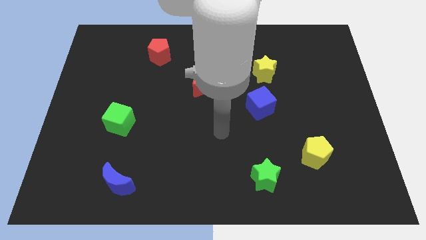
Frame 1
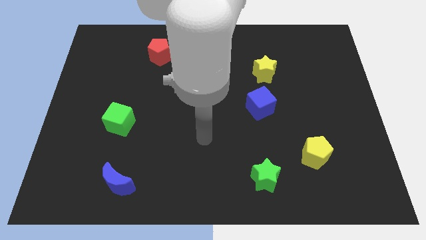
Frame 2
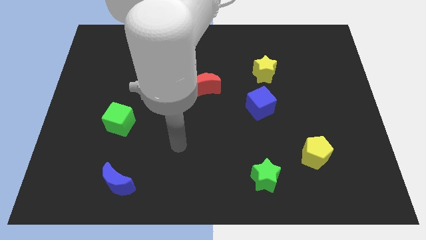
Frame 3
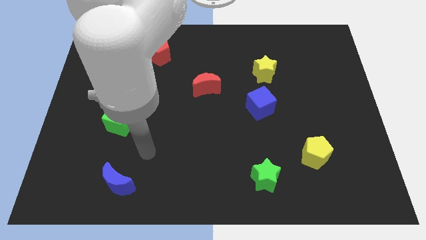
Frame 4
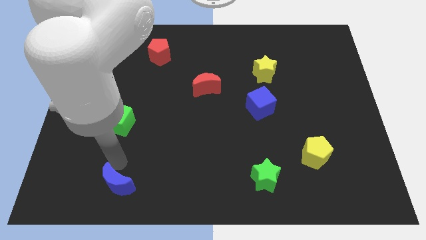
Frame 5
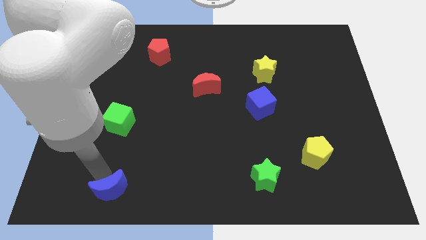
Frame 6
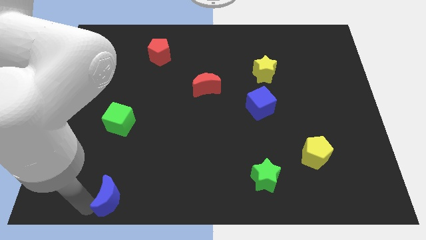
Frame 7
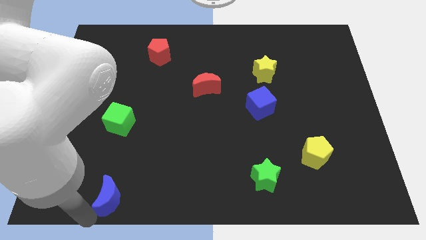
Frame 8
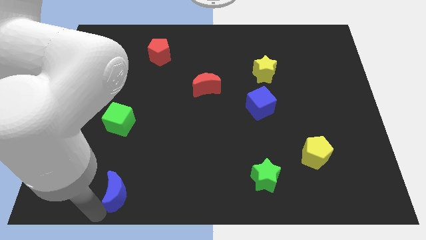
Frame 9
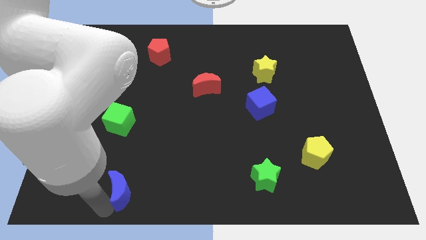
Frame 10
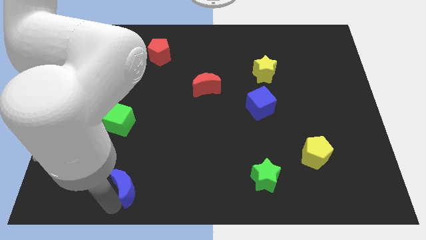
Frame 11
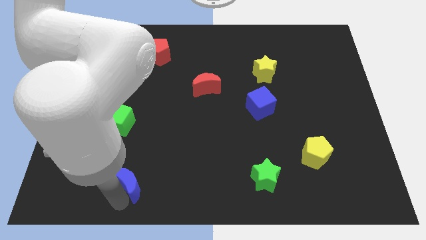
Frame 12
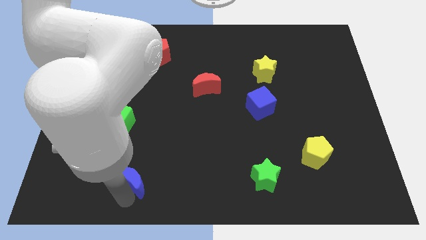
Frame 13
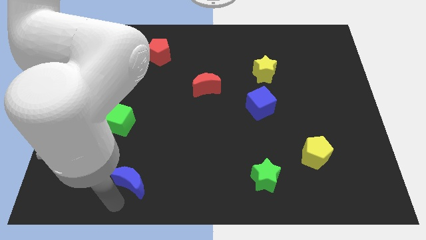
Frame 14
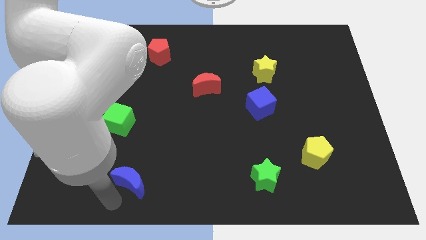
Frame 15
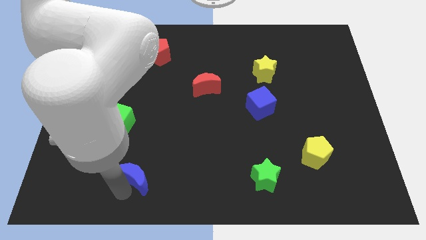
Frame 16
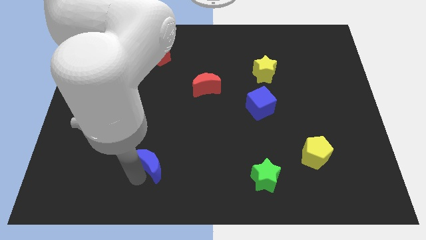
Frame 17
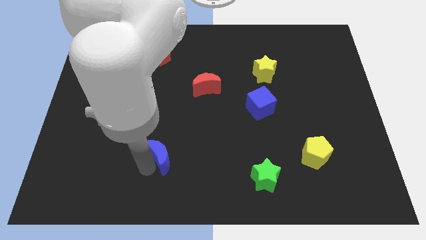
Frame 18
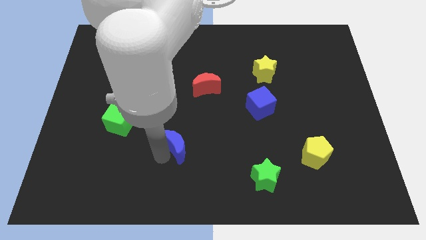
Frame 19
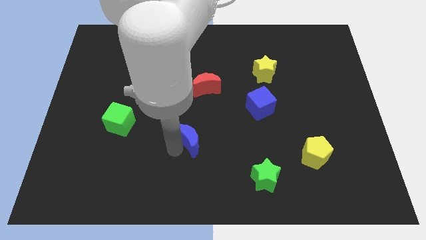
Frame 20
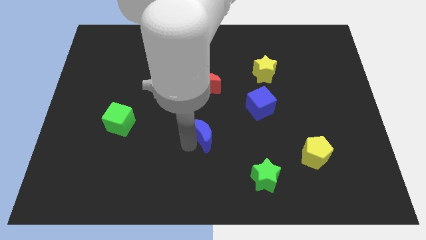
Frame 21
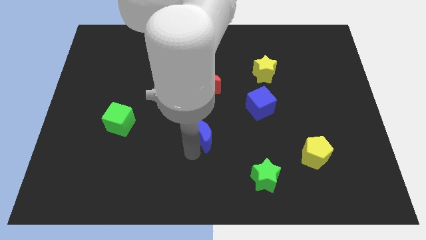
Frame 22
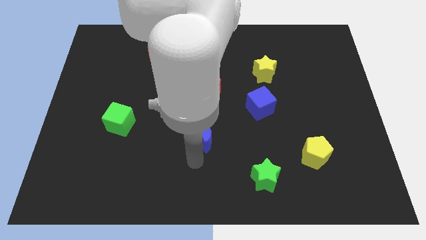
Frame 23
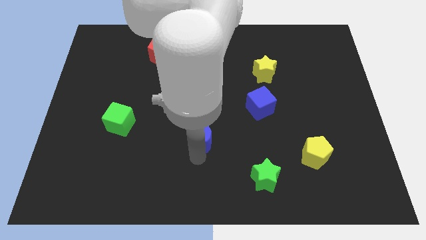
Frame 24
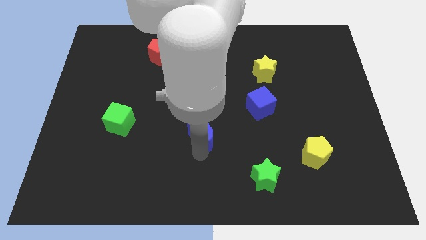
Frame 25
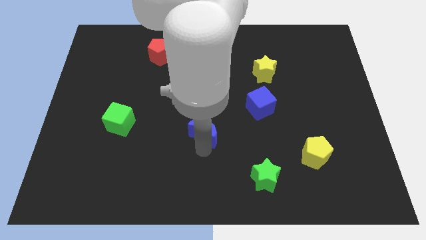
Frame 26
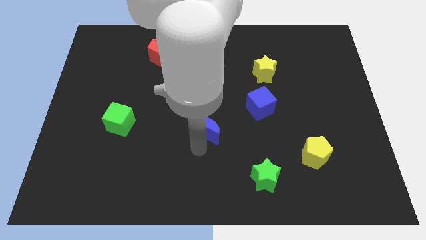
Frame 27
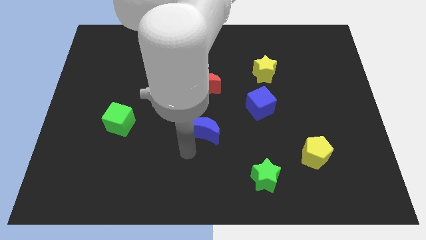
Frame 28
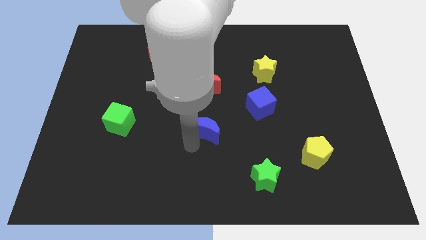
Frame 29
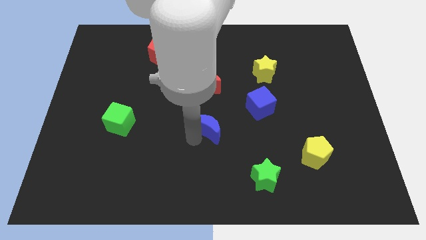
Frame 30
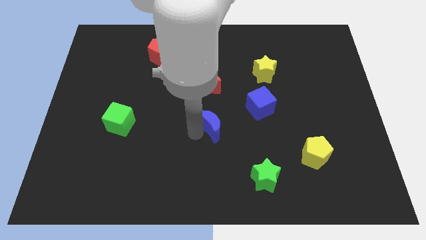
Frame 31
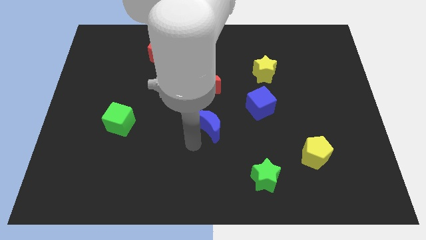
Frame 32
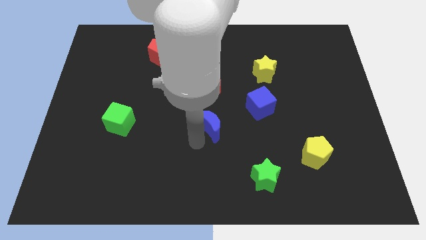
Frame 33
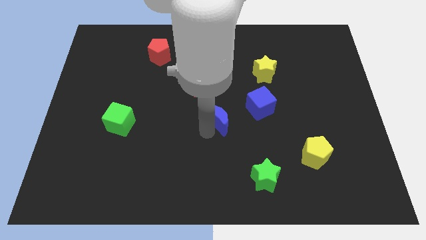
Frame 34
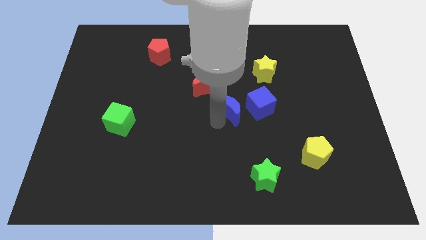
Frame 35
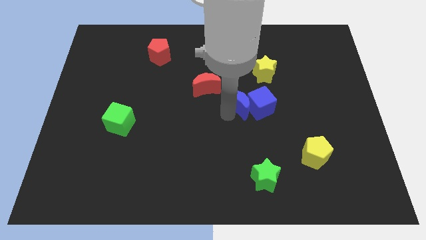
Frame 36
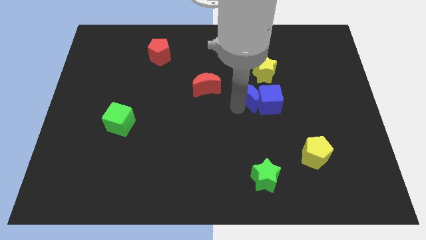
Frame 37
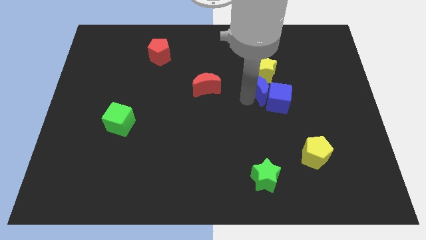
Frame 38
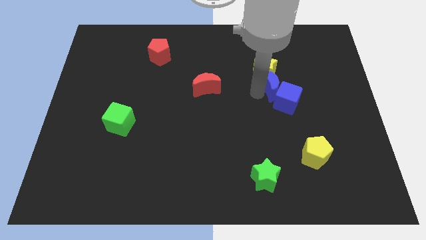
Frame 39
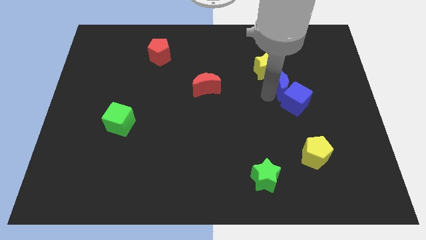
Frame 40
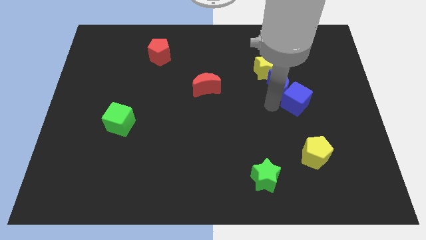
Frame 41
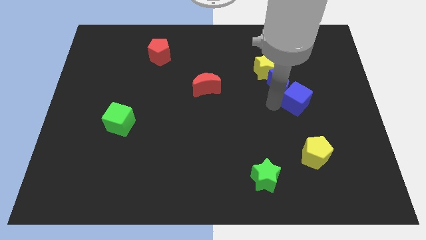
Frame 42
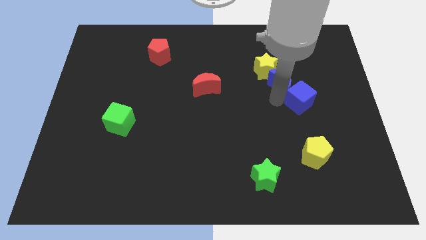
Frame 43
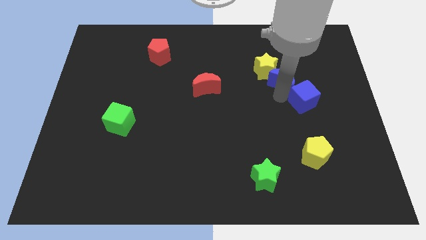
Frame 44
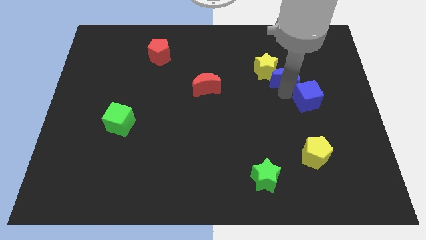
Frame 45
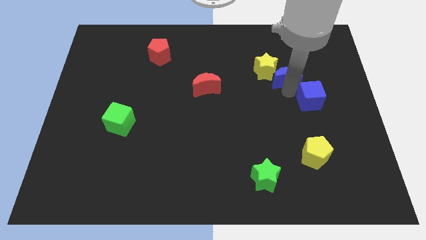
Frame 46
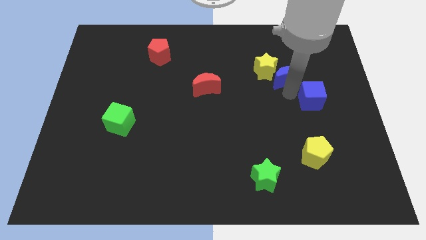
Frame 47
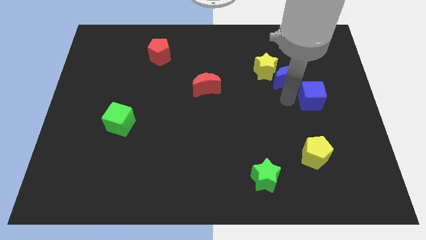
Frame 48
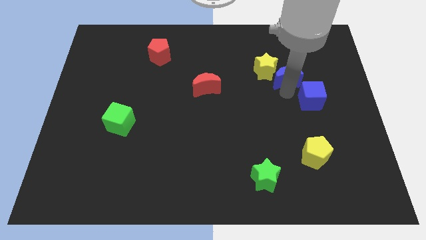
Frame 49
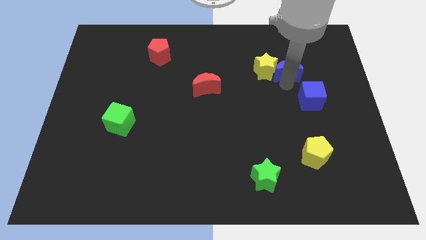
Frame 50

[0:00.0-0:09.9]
push the blue moon diagonally up and to the right of the yellow star

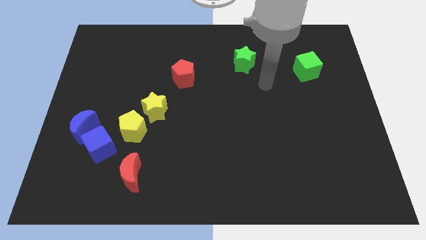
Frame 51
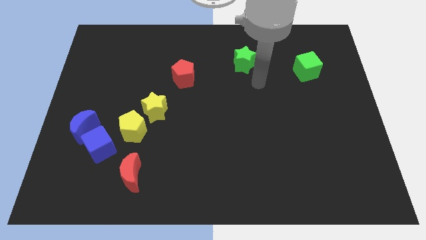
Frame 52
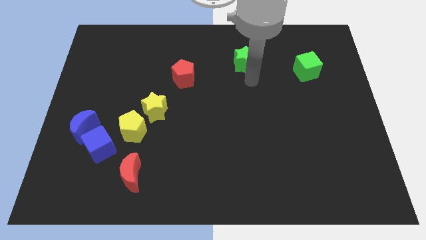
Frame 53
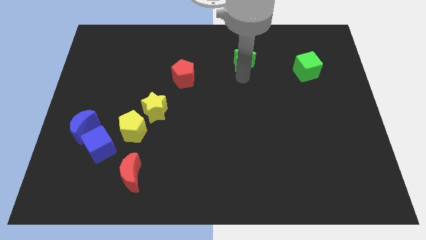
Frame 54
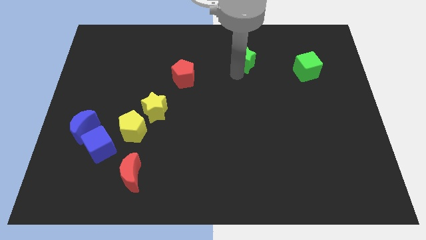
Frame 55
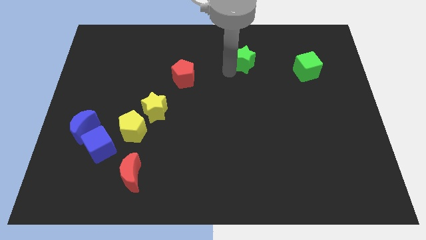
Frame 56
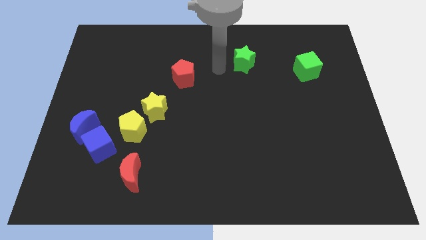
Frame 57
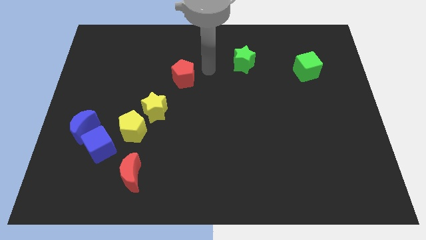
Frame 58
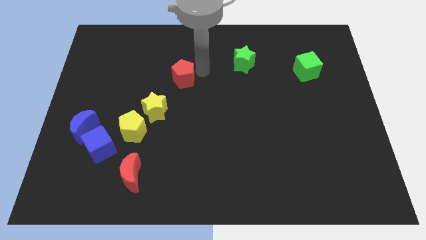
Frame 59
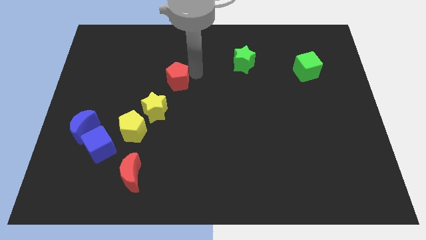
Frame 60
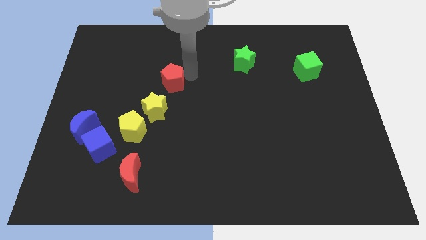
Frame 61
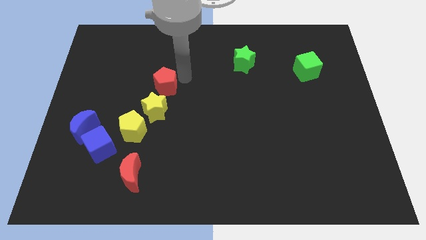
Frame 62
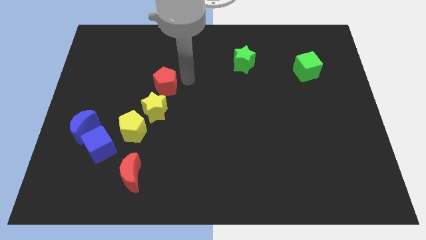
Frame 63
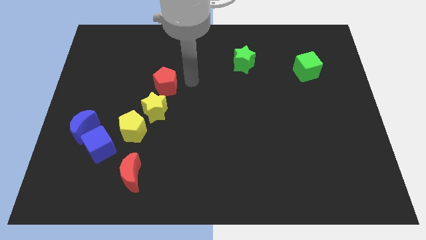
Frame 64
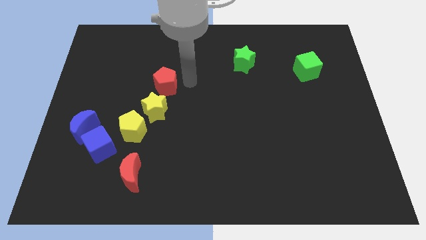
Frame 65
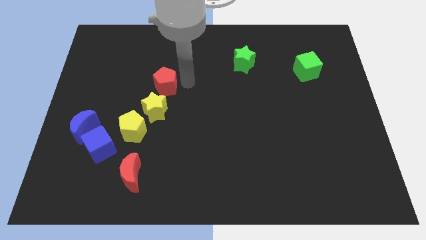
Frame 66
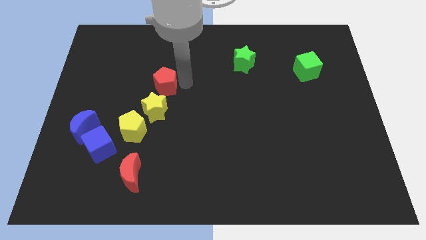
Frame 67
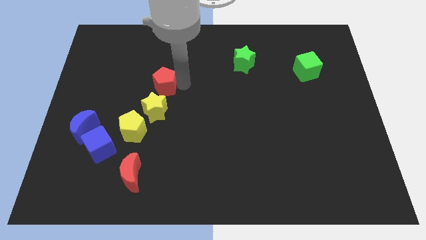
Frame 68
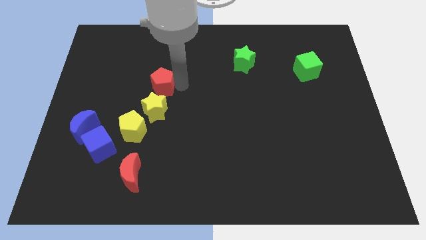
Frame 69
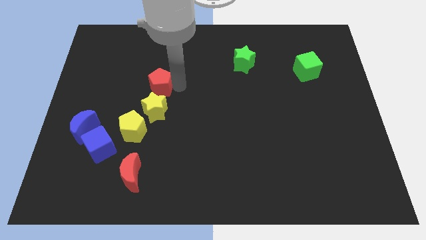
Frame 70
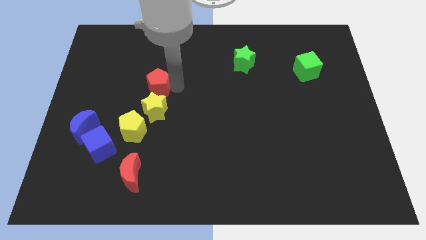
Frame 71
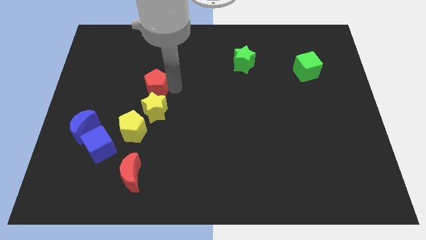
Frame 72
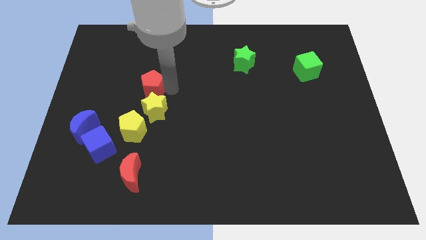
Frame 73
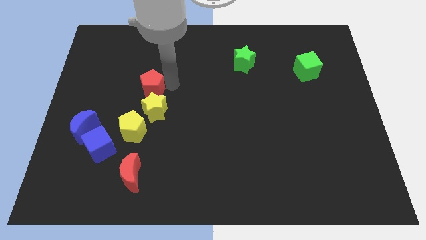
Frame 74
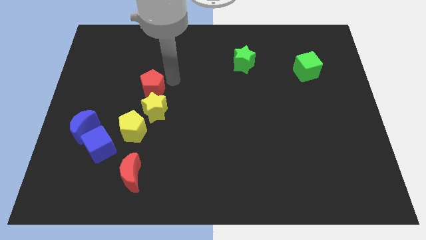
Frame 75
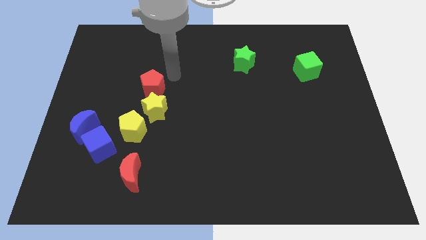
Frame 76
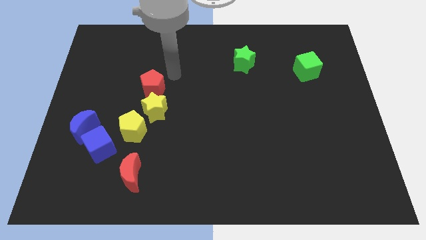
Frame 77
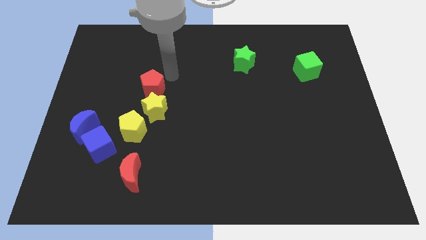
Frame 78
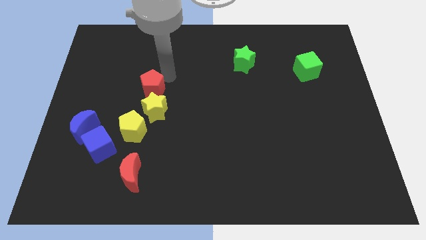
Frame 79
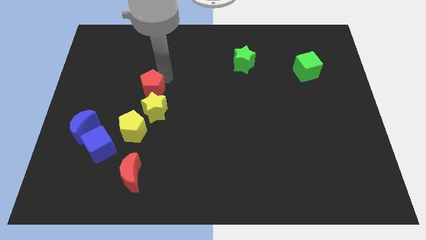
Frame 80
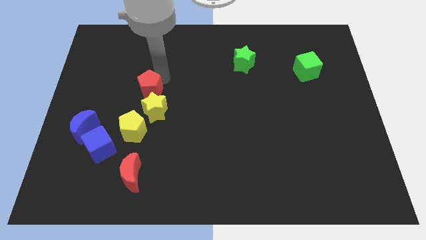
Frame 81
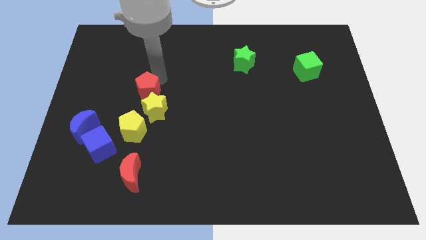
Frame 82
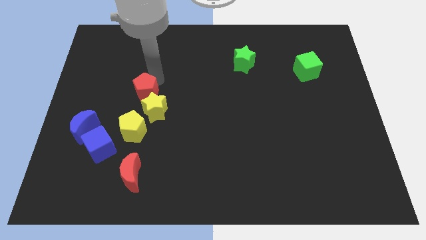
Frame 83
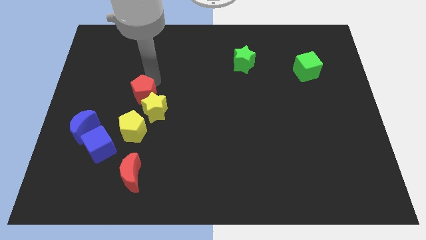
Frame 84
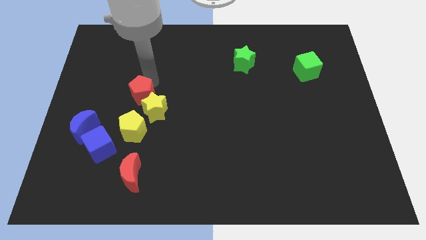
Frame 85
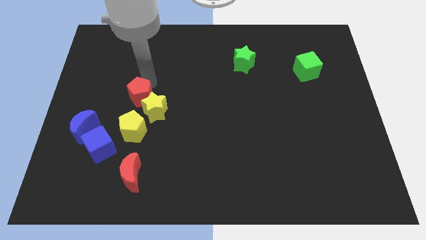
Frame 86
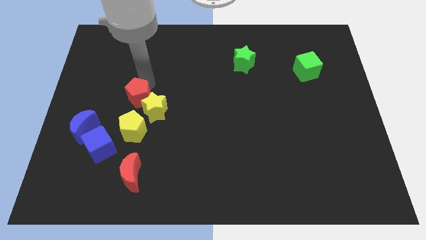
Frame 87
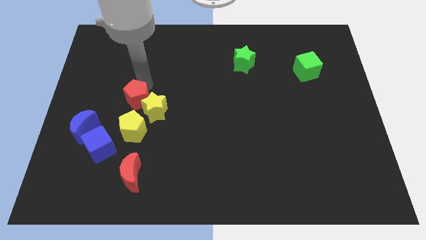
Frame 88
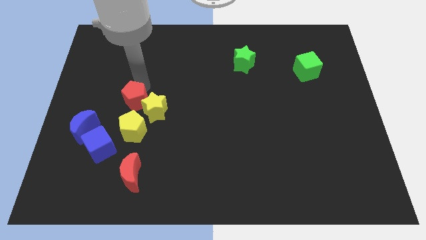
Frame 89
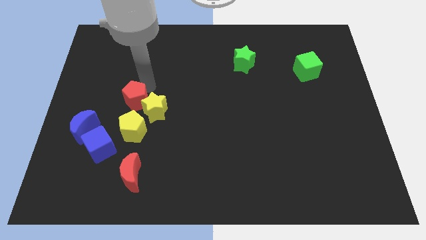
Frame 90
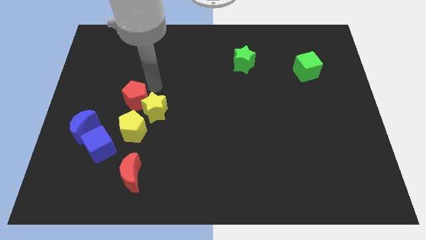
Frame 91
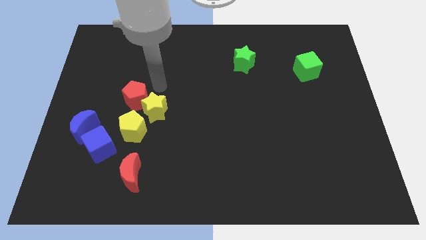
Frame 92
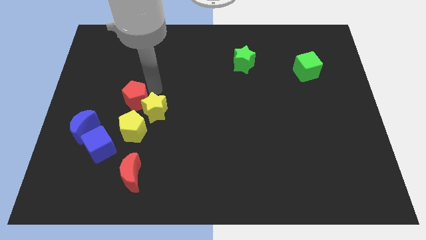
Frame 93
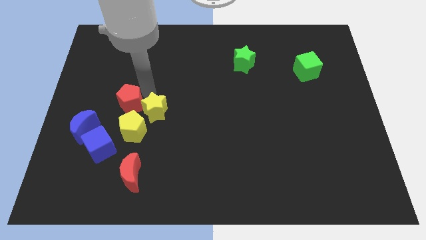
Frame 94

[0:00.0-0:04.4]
put the red pentagon diagonally up and to the left of the yellow pentagon
